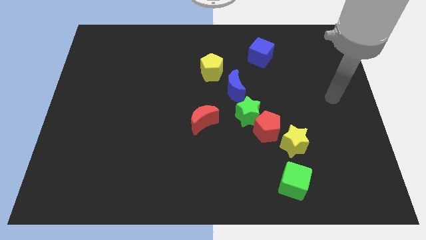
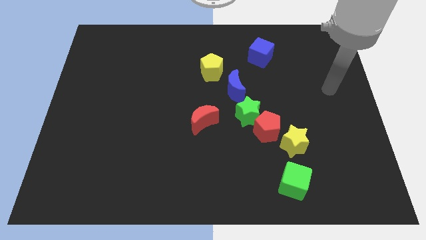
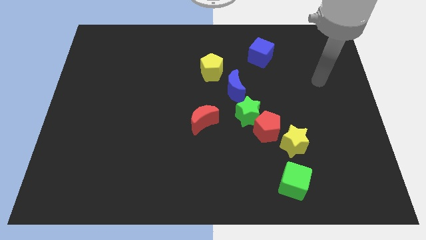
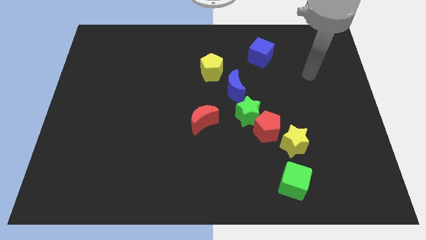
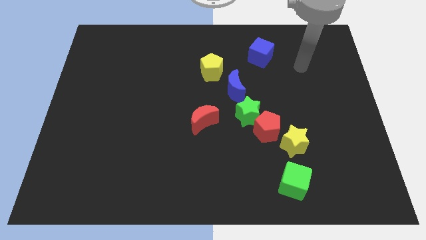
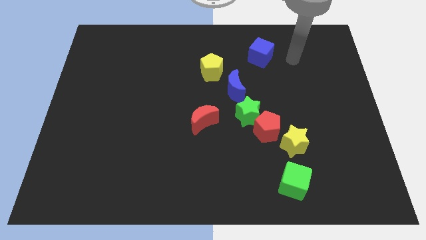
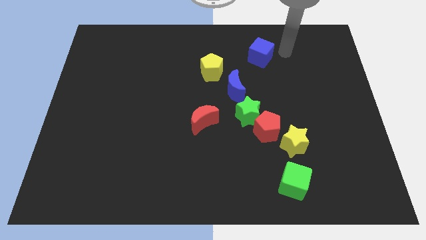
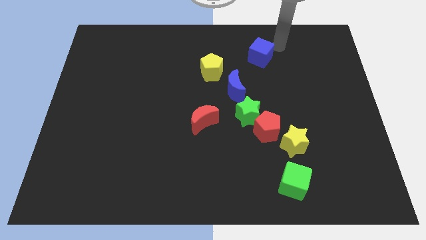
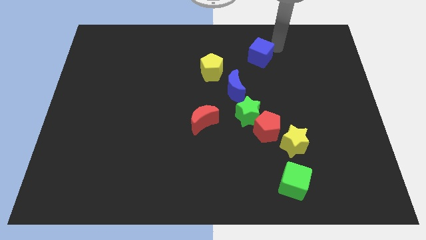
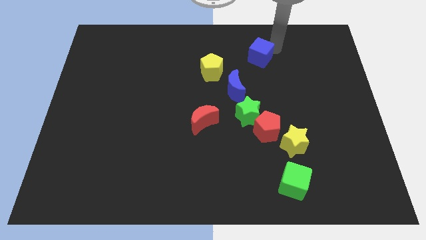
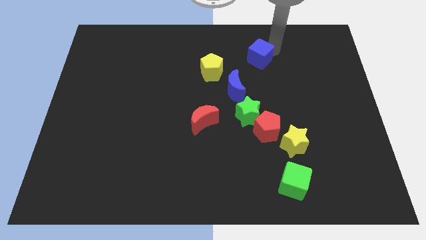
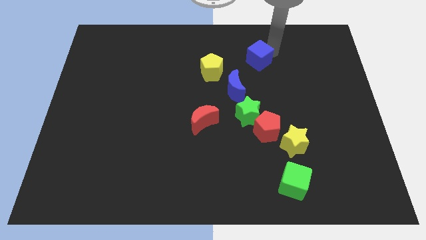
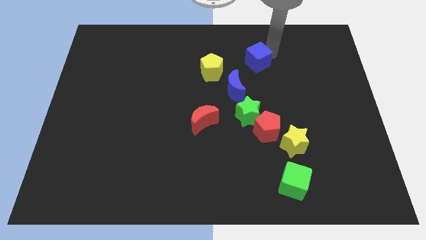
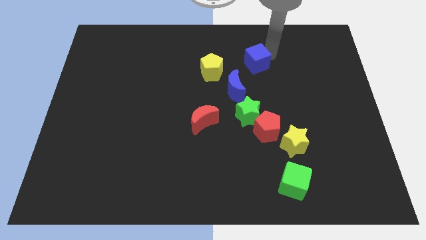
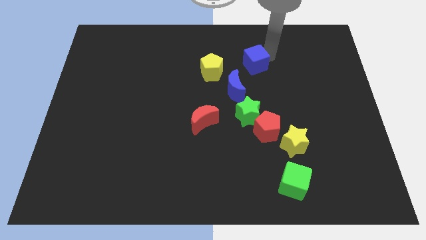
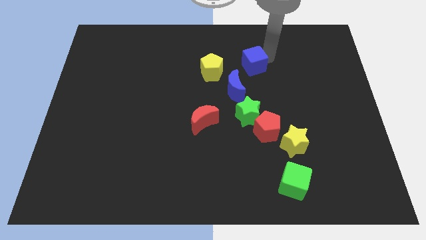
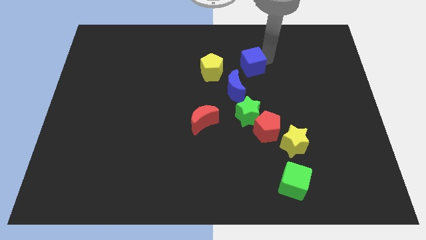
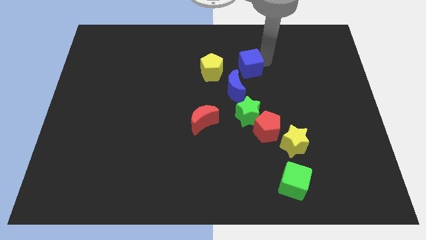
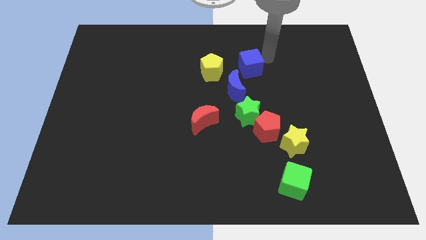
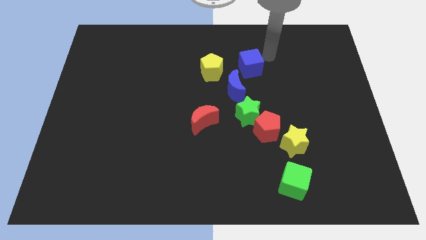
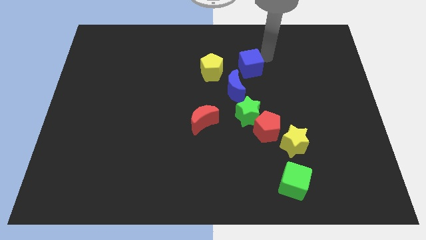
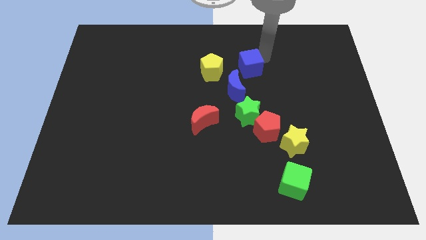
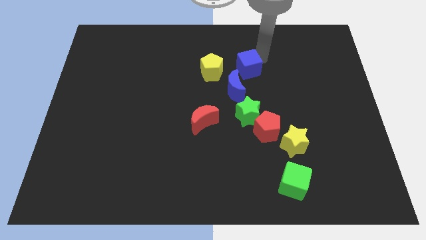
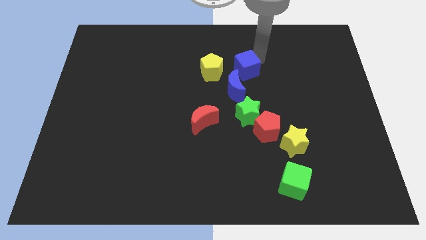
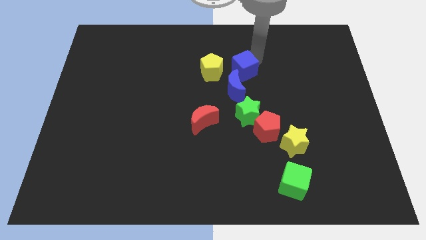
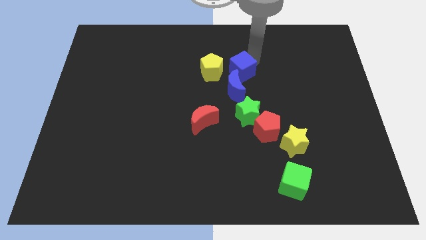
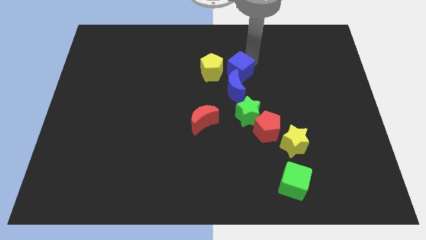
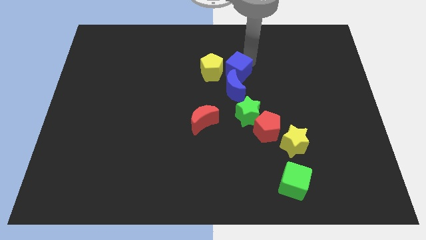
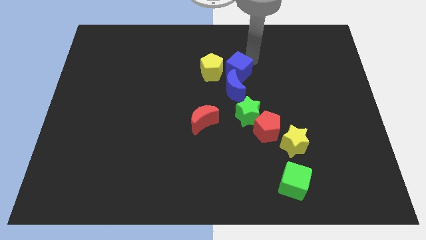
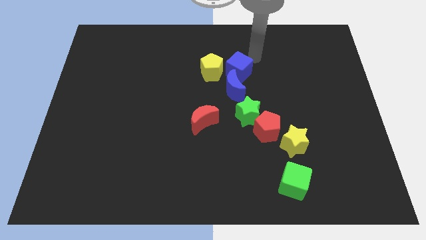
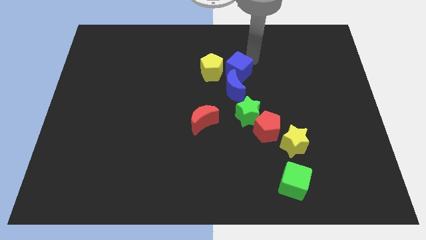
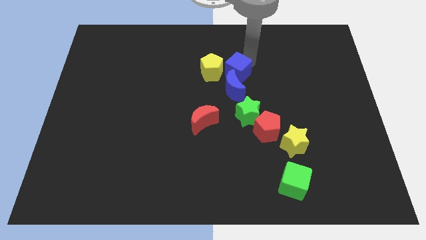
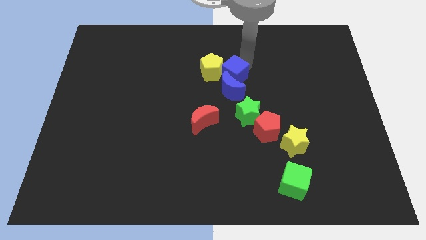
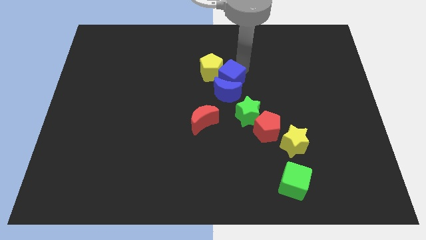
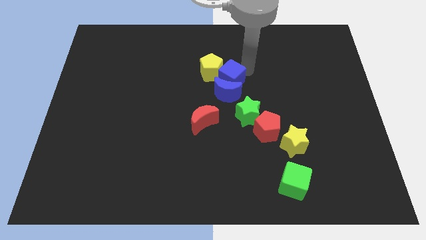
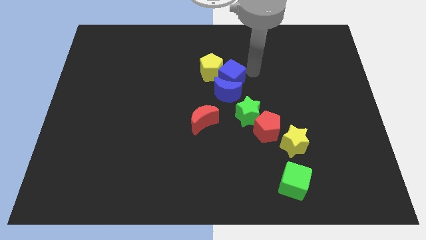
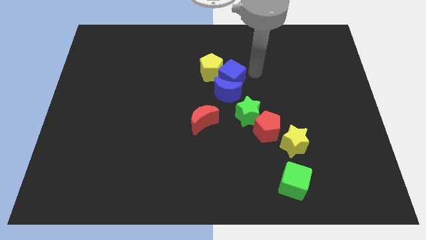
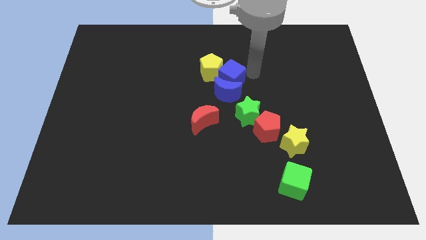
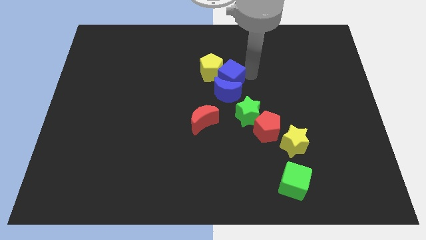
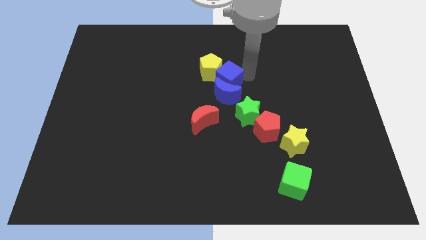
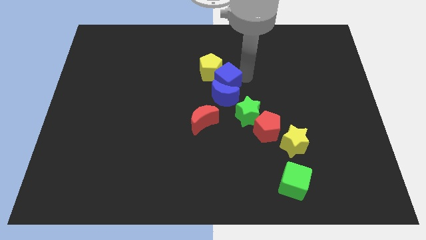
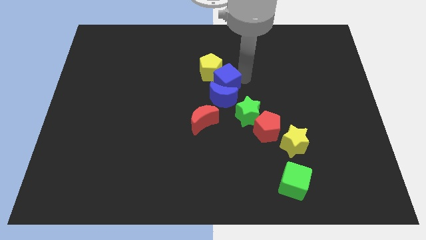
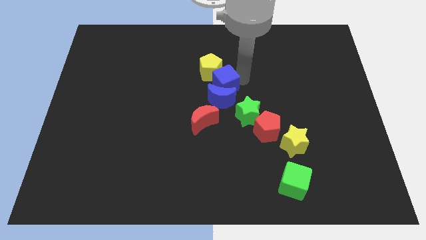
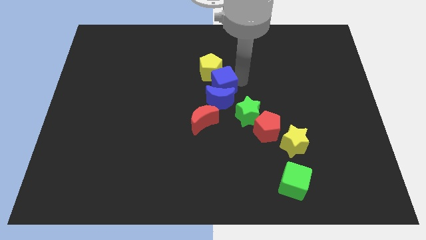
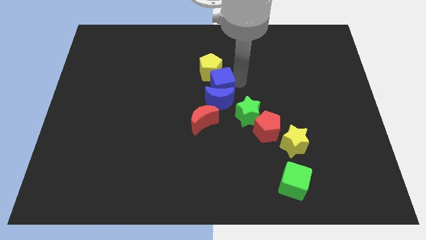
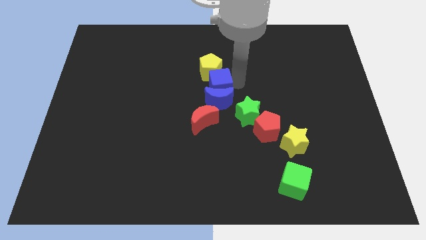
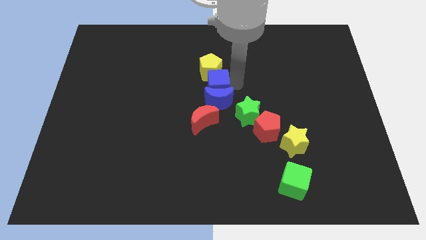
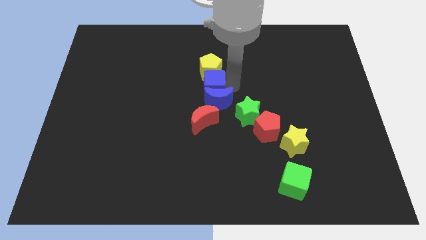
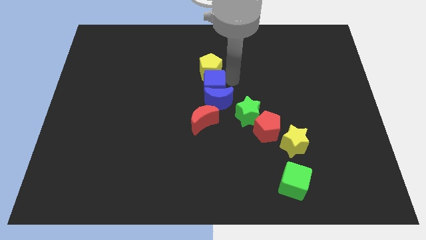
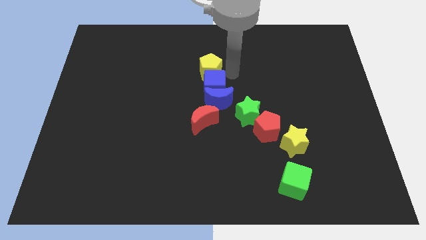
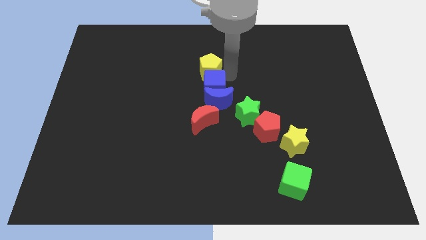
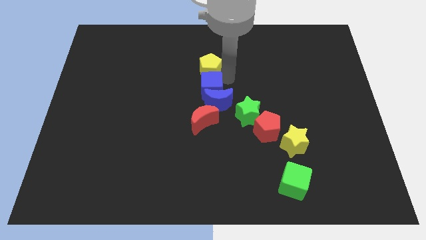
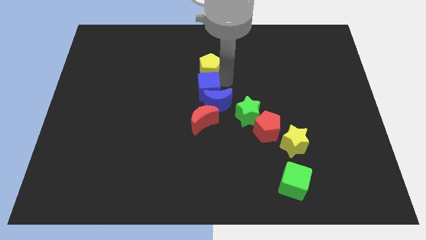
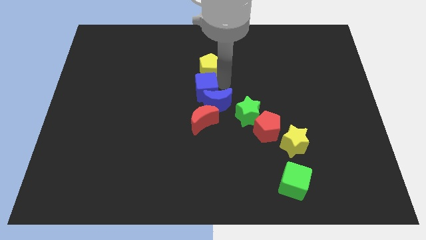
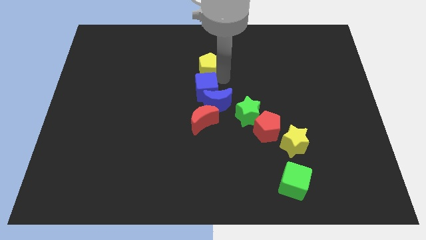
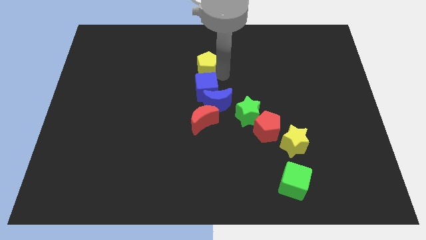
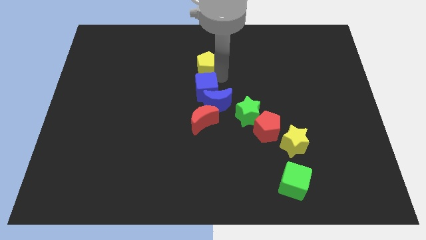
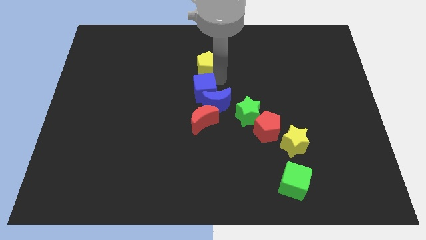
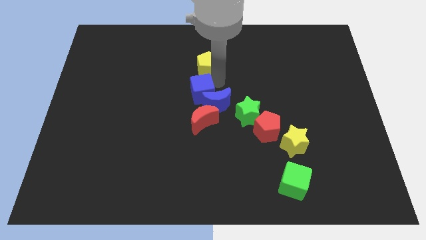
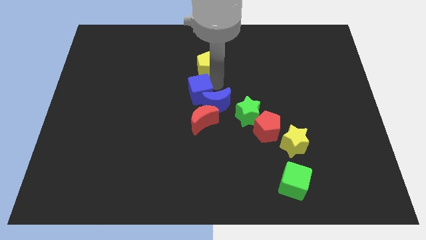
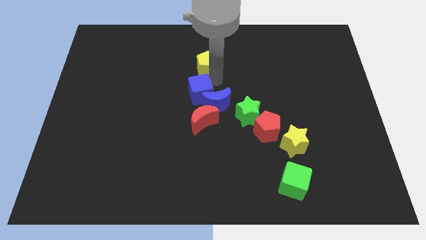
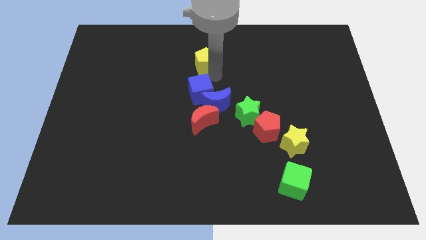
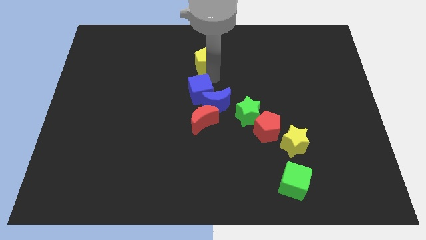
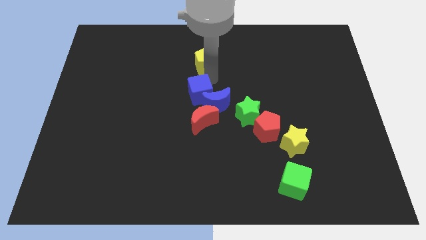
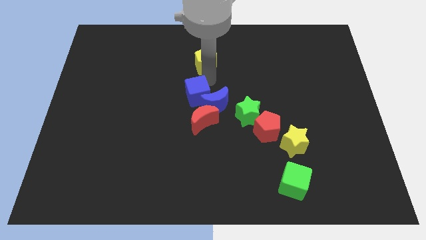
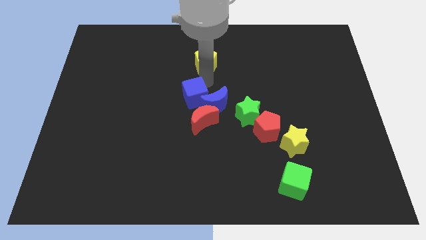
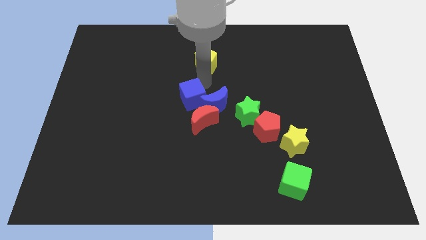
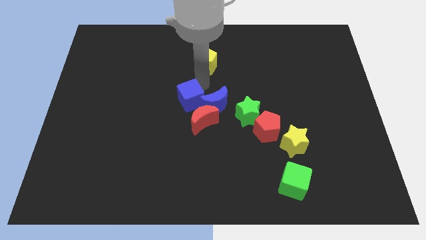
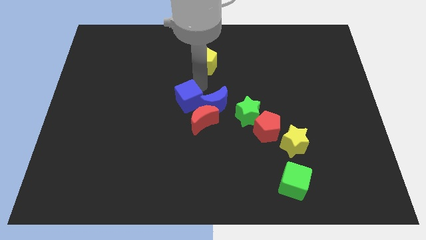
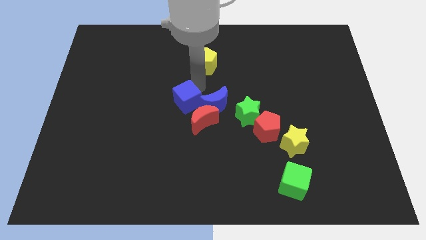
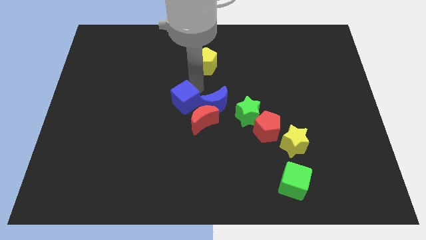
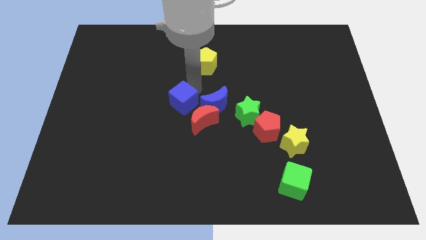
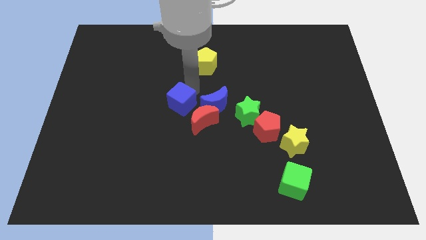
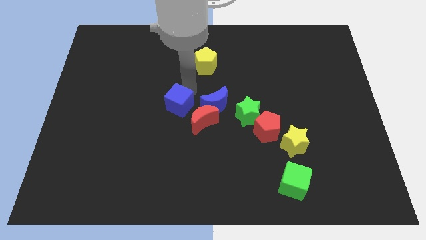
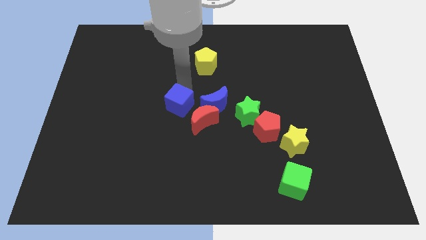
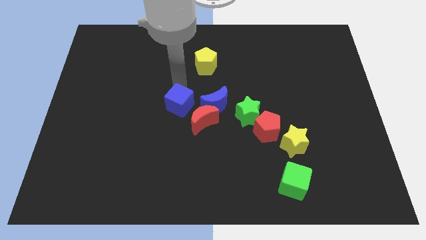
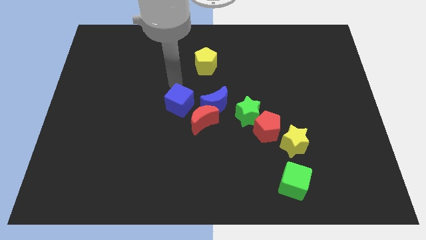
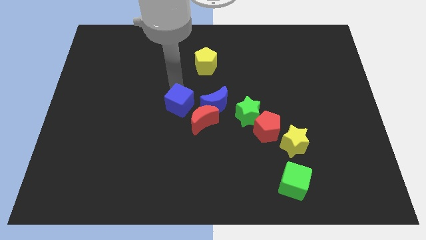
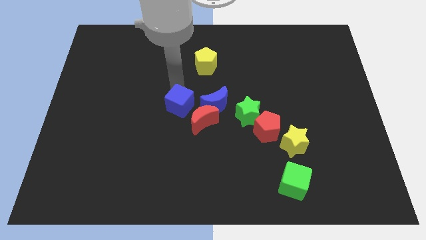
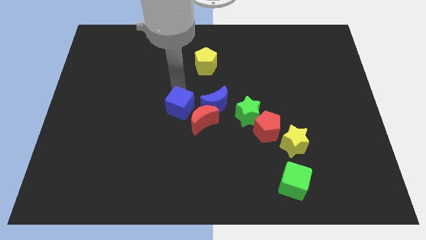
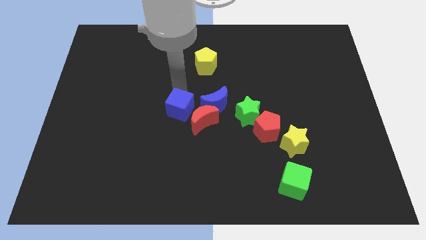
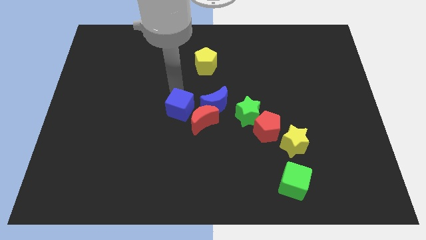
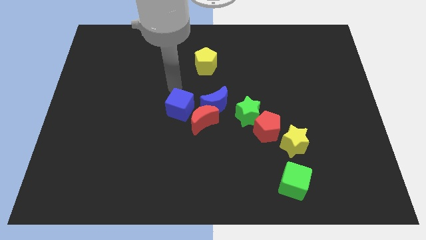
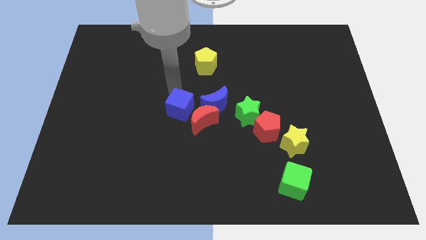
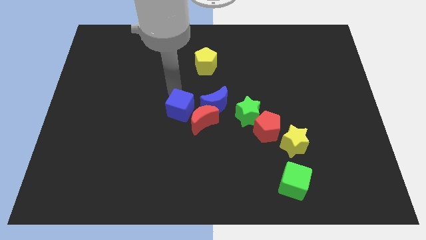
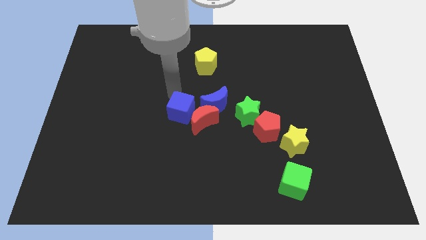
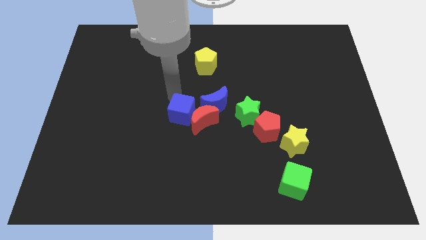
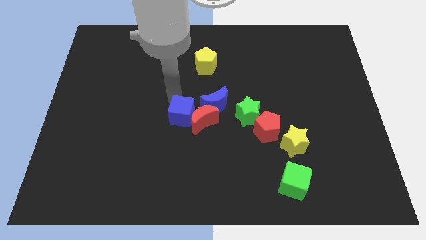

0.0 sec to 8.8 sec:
put the blue cube diagonally down and to the left of the red moon
